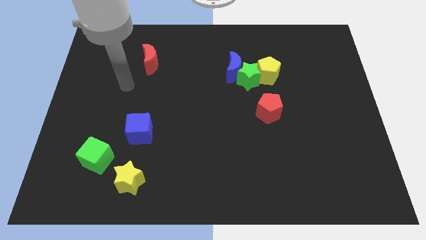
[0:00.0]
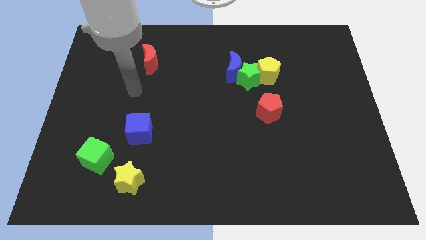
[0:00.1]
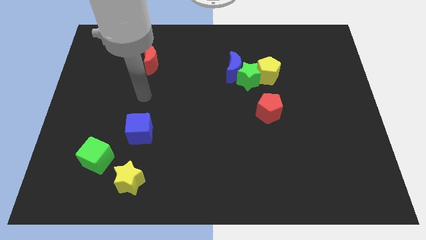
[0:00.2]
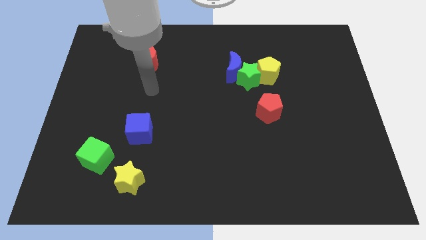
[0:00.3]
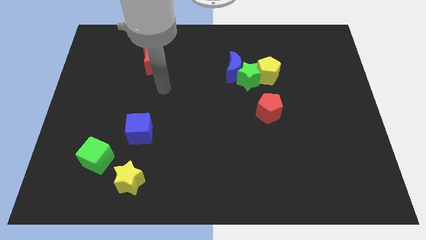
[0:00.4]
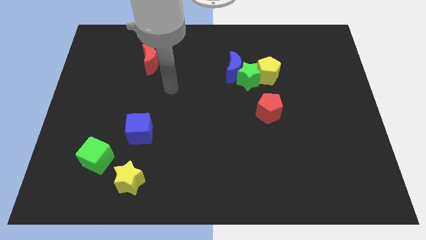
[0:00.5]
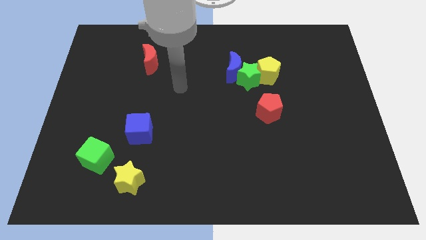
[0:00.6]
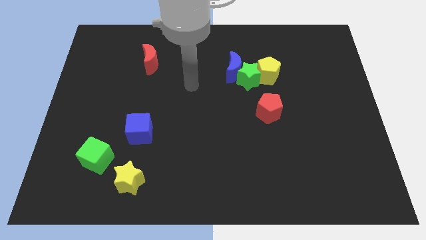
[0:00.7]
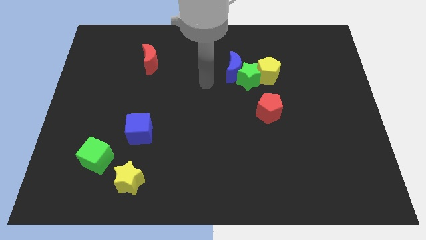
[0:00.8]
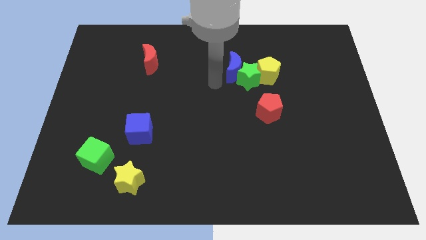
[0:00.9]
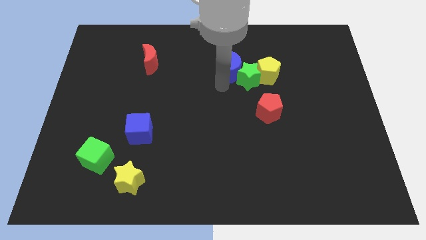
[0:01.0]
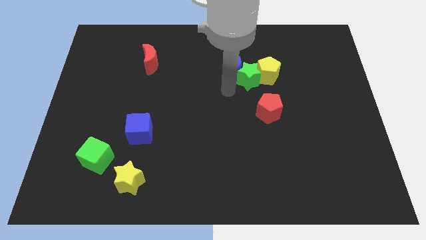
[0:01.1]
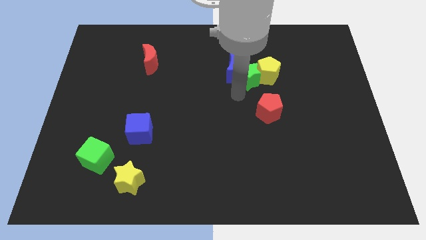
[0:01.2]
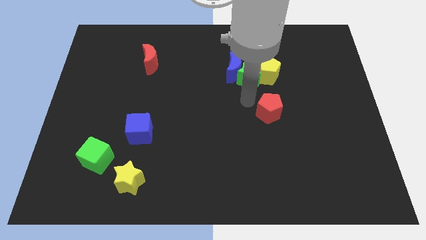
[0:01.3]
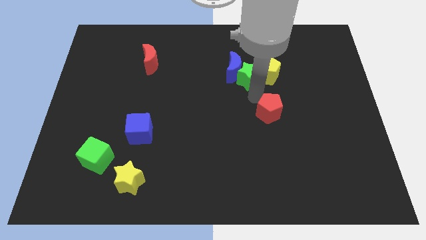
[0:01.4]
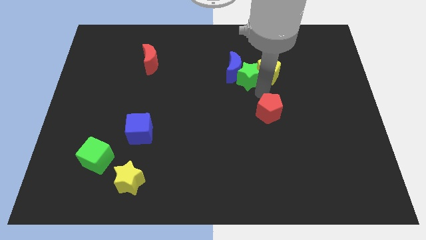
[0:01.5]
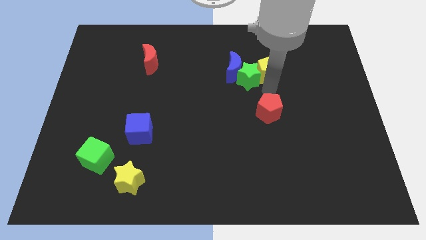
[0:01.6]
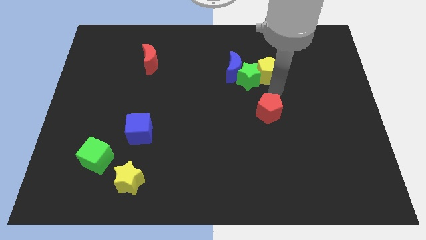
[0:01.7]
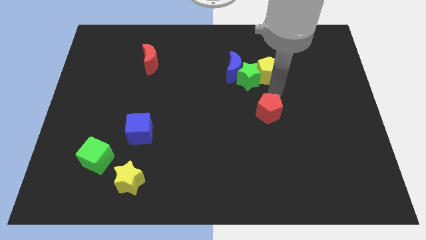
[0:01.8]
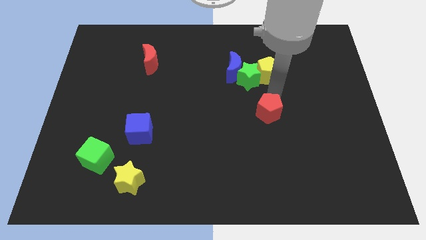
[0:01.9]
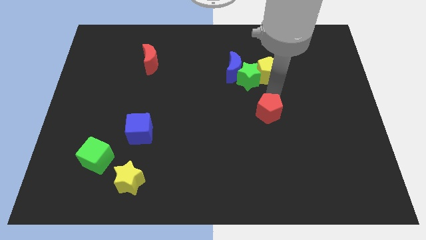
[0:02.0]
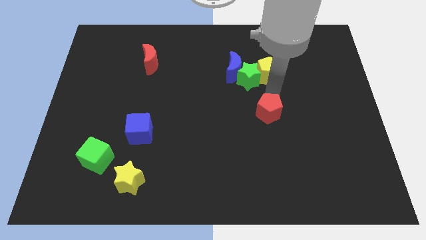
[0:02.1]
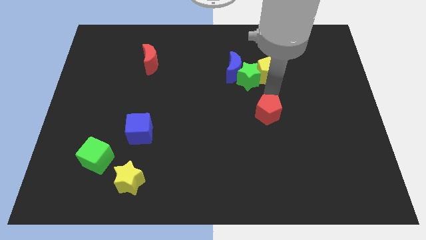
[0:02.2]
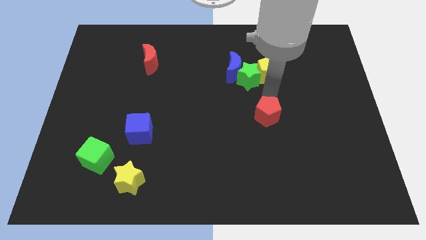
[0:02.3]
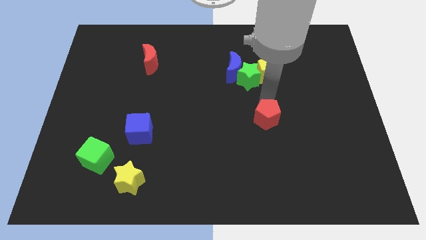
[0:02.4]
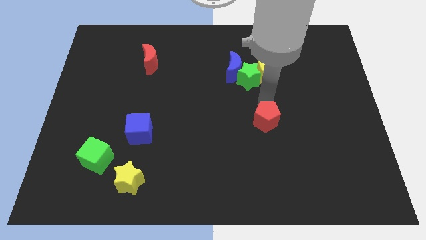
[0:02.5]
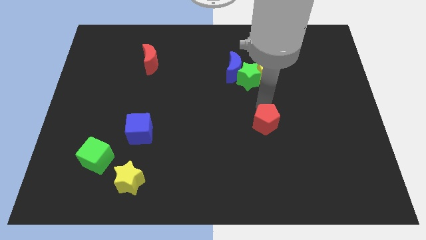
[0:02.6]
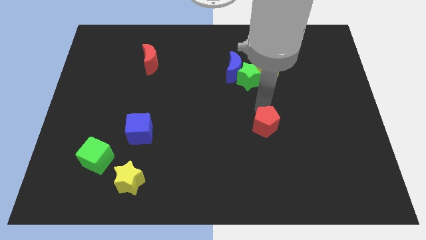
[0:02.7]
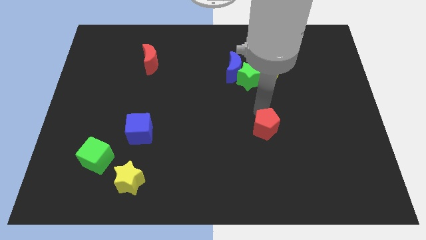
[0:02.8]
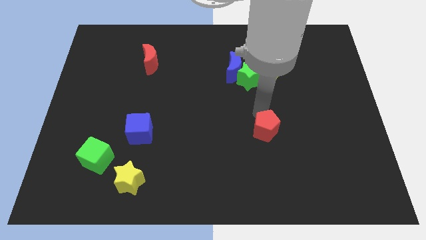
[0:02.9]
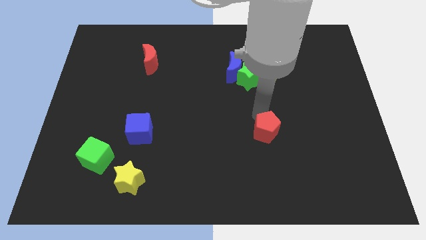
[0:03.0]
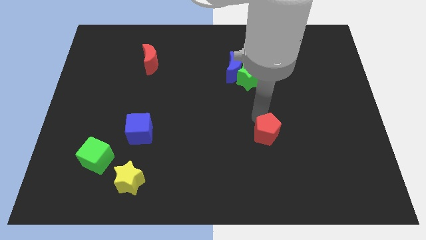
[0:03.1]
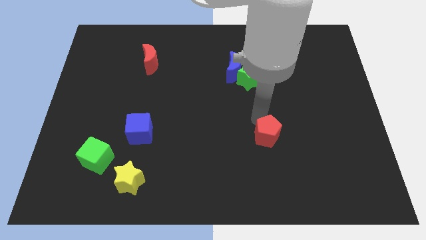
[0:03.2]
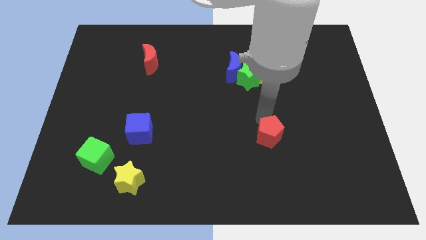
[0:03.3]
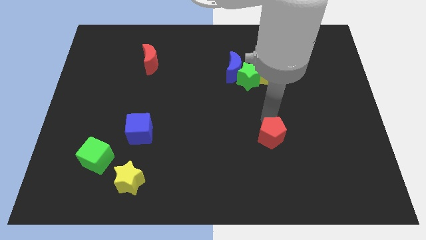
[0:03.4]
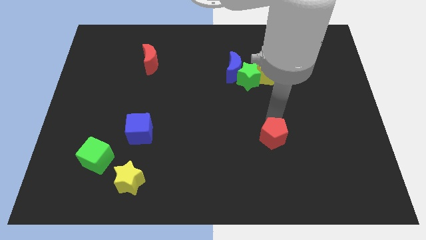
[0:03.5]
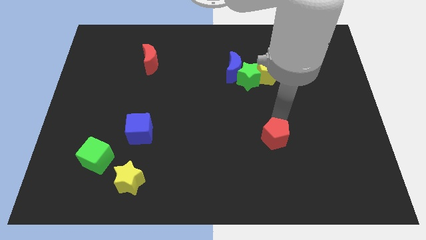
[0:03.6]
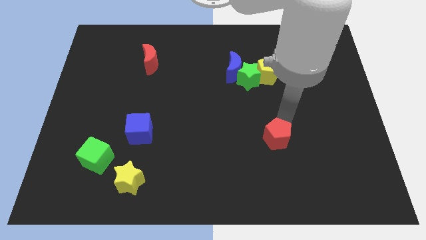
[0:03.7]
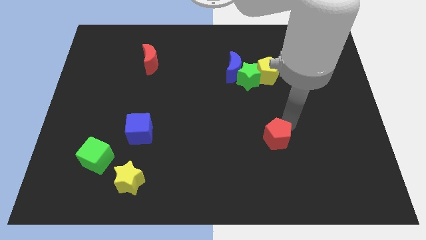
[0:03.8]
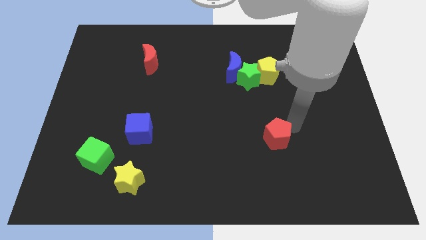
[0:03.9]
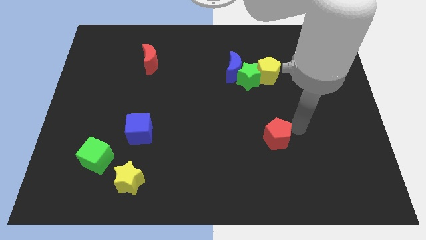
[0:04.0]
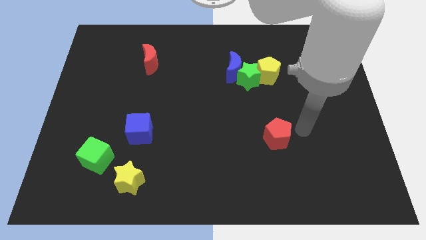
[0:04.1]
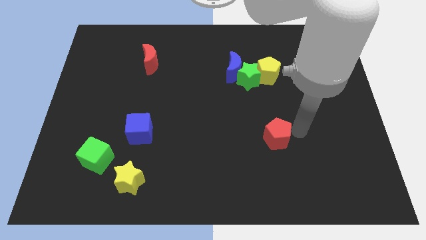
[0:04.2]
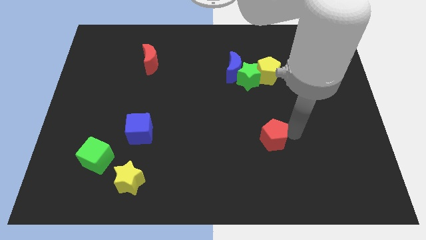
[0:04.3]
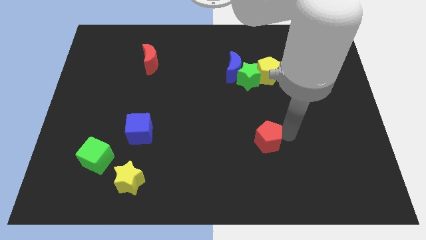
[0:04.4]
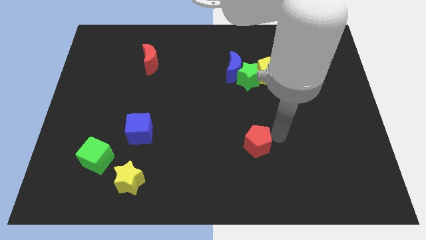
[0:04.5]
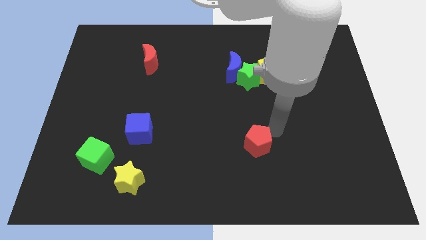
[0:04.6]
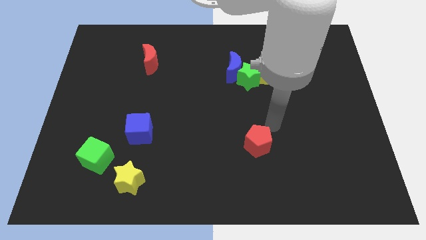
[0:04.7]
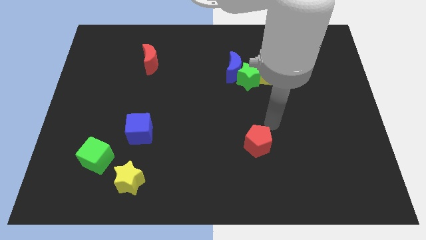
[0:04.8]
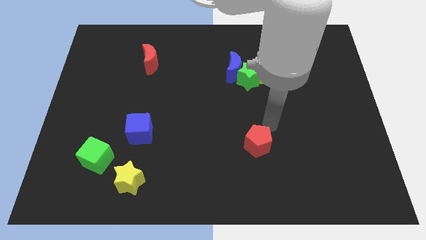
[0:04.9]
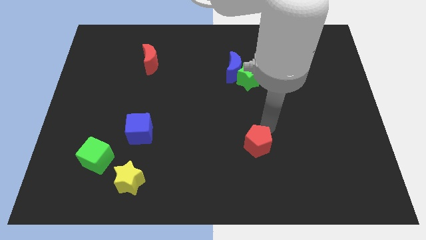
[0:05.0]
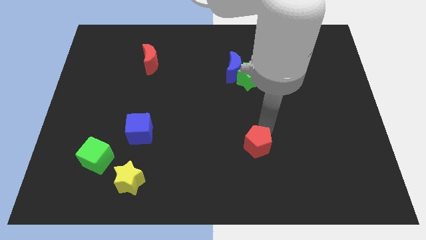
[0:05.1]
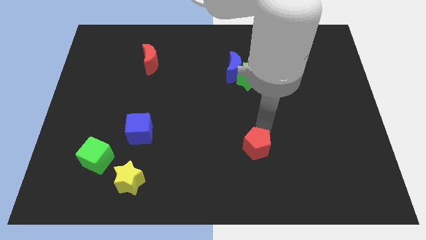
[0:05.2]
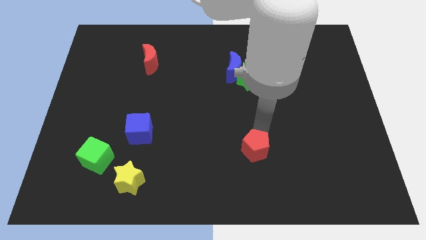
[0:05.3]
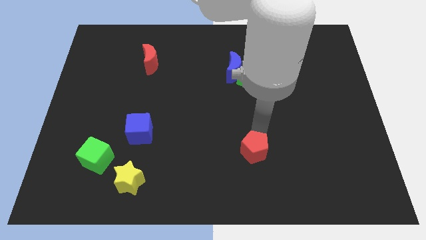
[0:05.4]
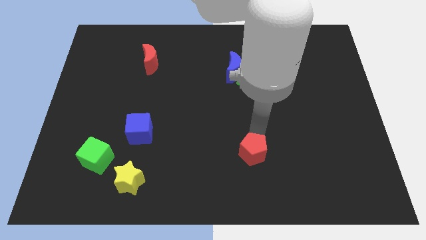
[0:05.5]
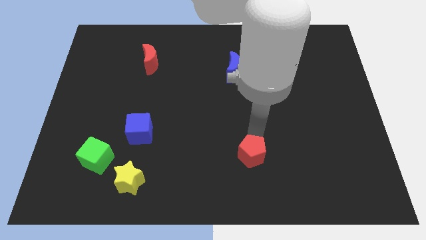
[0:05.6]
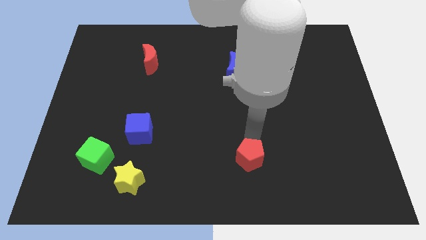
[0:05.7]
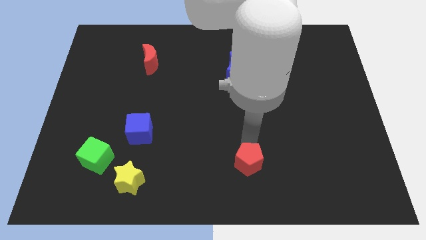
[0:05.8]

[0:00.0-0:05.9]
move the red pentagon to the bottom

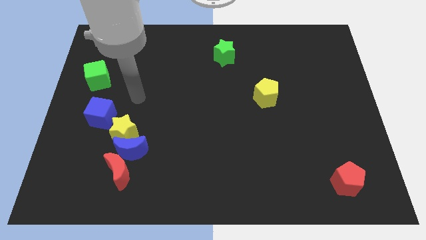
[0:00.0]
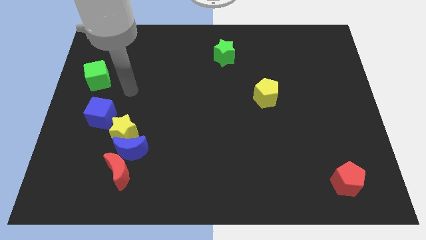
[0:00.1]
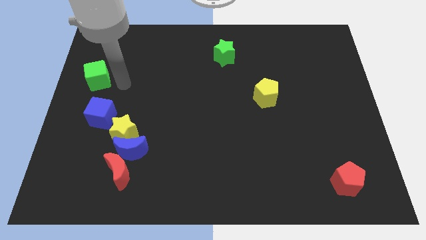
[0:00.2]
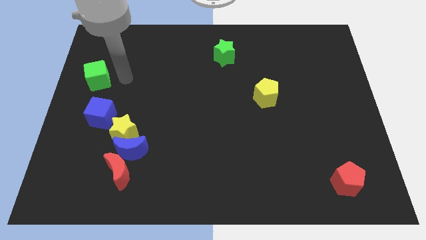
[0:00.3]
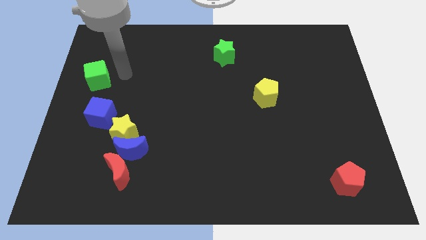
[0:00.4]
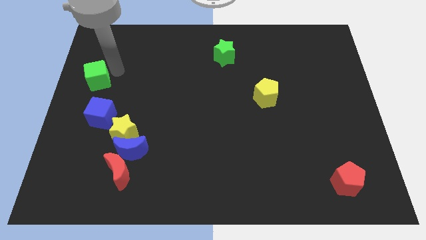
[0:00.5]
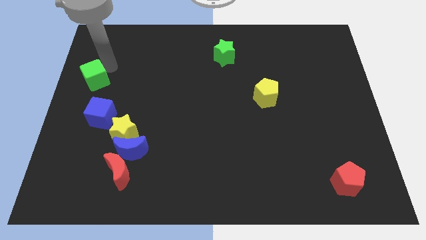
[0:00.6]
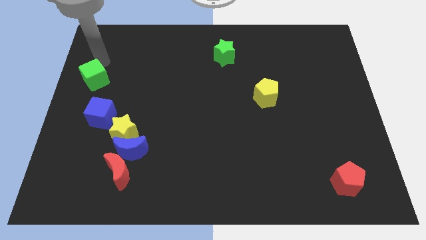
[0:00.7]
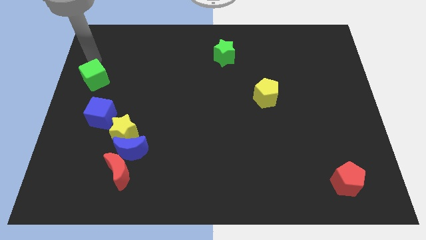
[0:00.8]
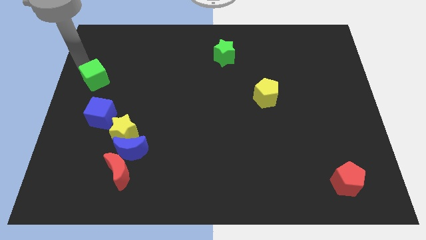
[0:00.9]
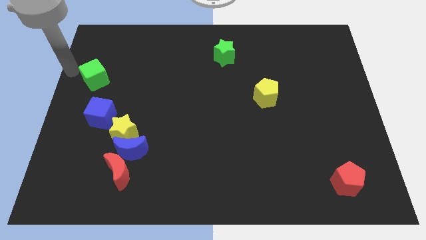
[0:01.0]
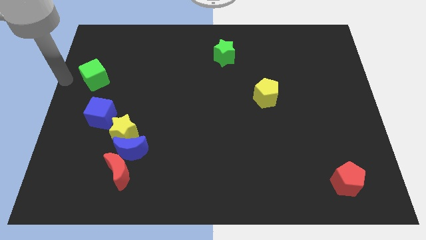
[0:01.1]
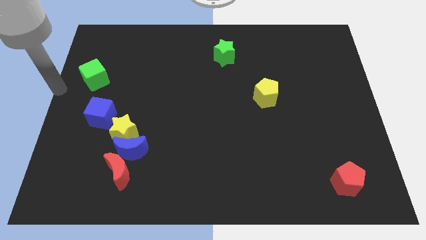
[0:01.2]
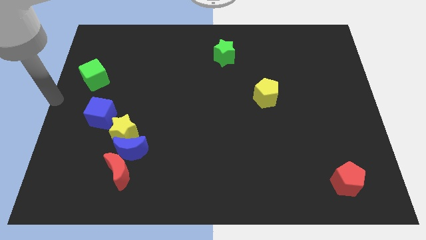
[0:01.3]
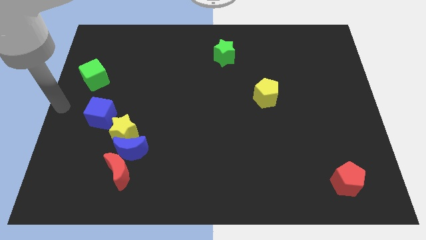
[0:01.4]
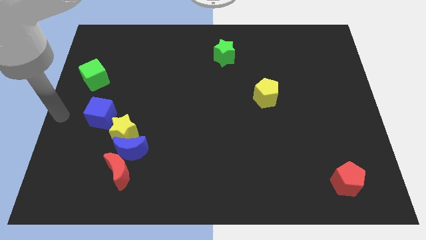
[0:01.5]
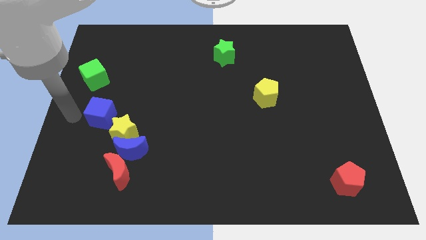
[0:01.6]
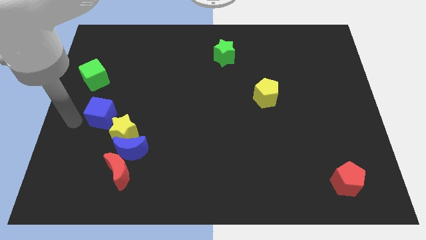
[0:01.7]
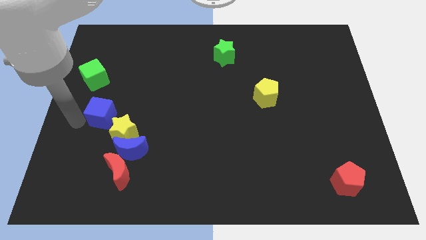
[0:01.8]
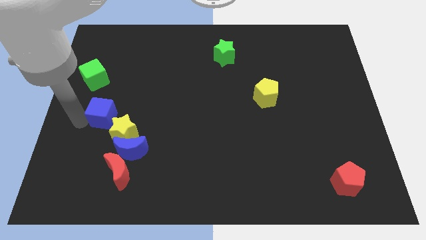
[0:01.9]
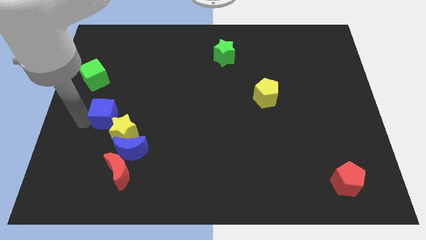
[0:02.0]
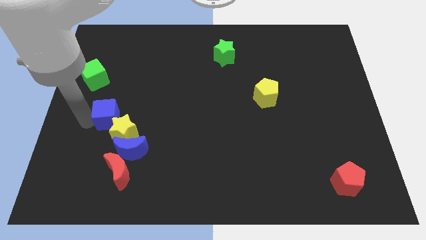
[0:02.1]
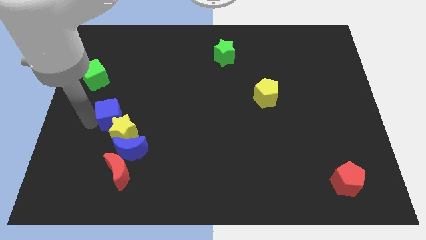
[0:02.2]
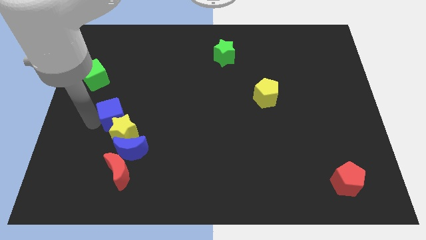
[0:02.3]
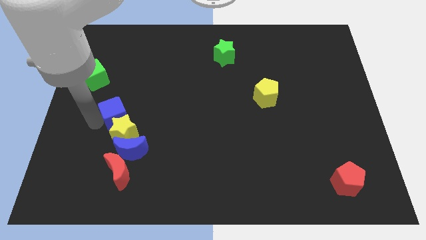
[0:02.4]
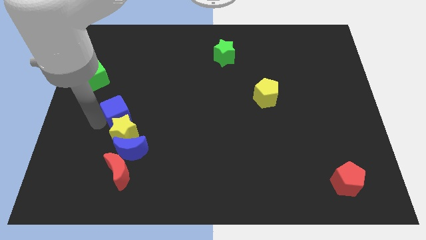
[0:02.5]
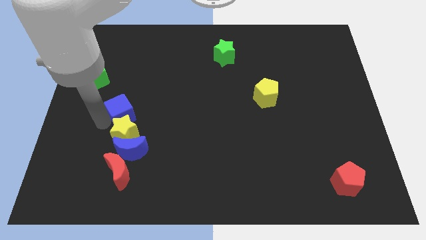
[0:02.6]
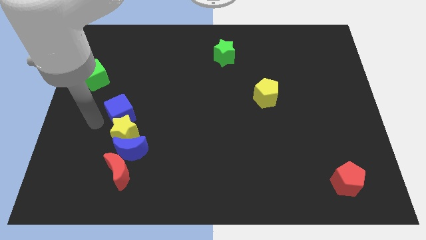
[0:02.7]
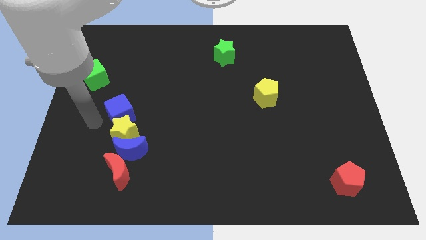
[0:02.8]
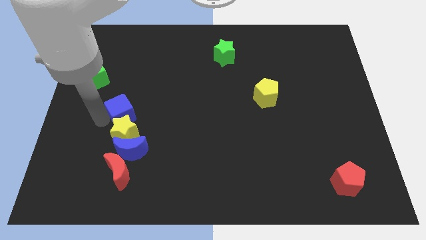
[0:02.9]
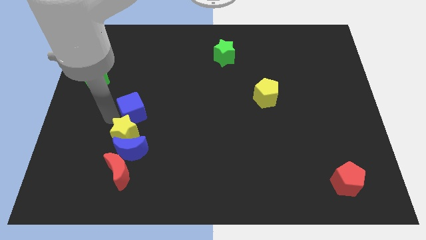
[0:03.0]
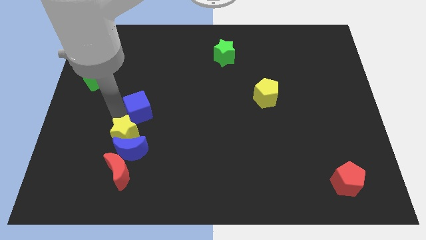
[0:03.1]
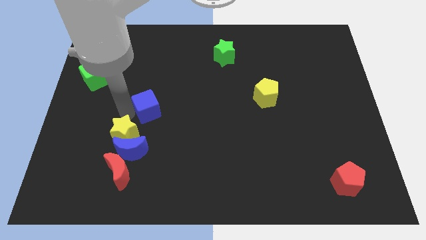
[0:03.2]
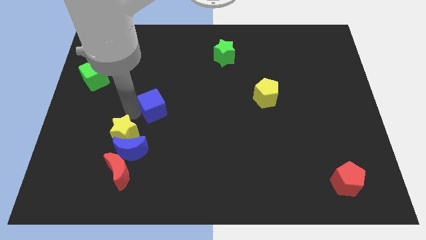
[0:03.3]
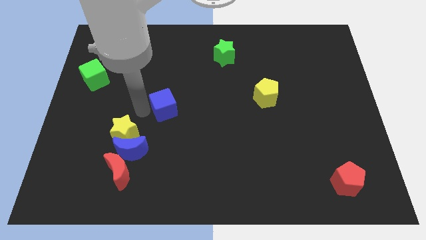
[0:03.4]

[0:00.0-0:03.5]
push the blue cube to the center
